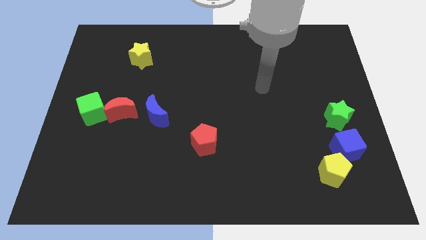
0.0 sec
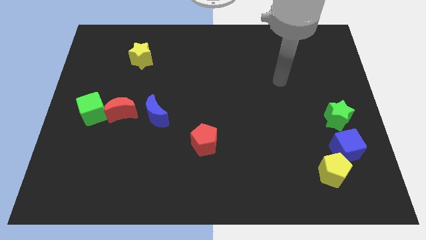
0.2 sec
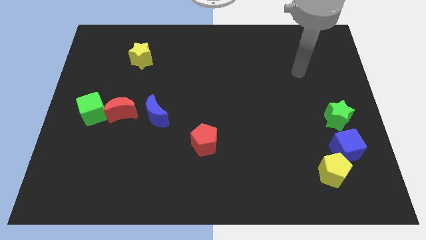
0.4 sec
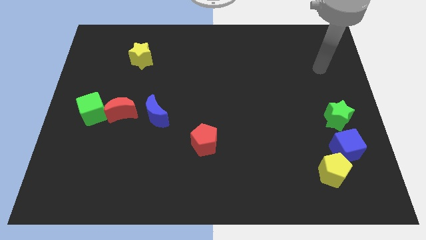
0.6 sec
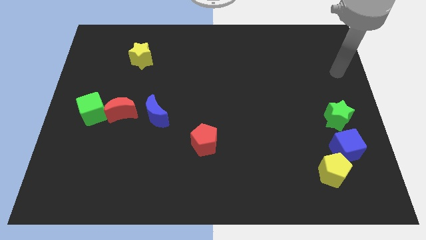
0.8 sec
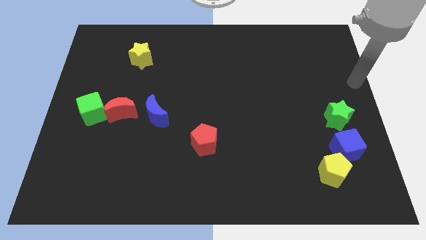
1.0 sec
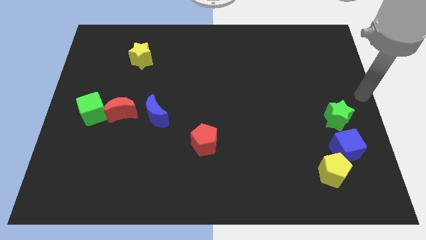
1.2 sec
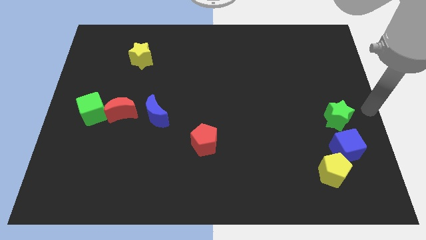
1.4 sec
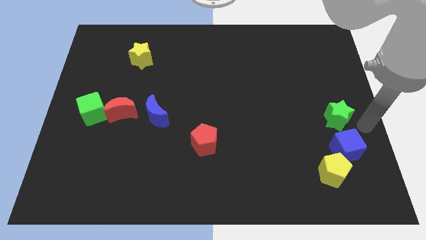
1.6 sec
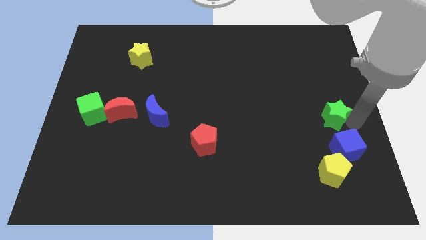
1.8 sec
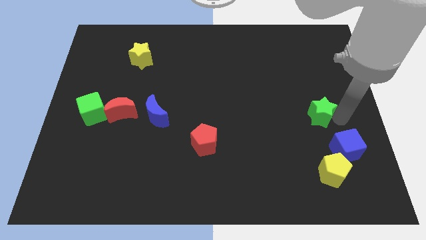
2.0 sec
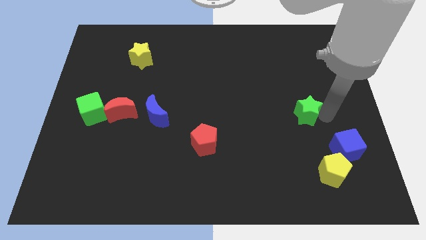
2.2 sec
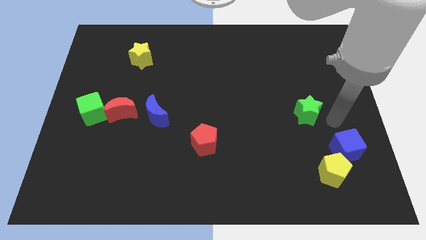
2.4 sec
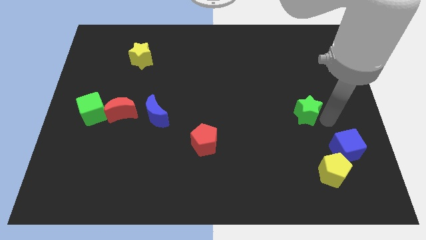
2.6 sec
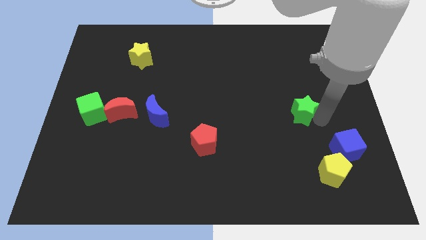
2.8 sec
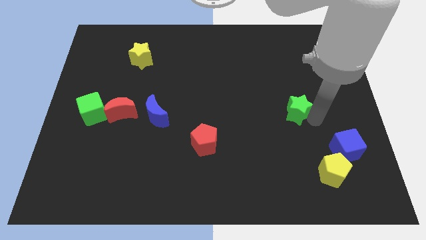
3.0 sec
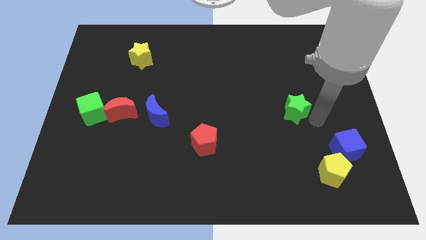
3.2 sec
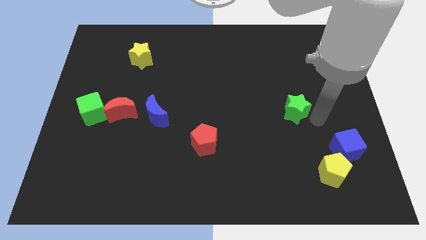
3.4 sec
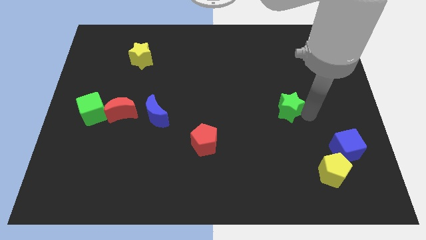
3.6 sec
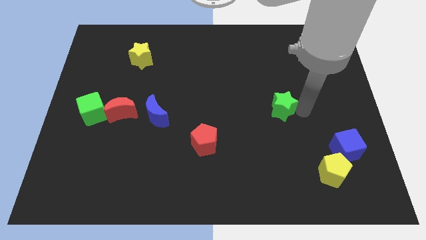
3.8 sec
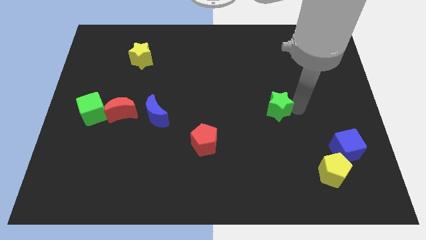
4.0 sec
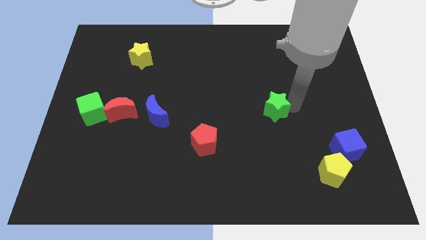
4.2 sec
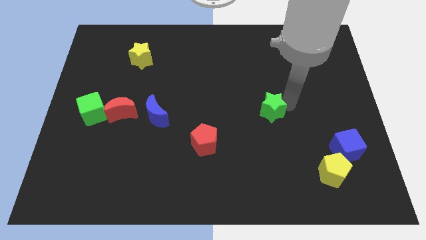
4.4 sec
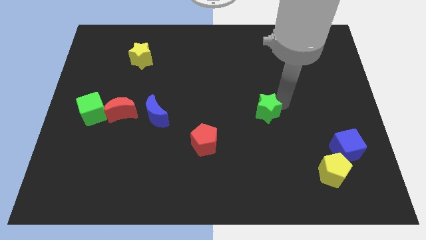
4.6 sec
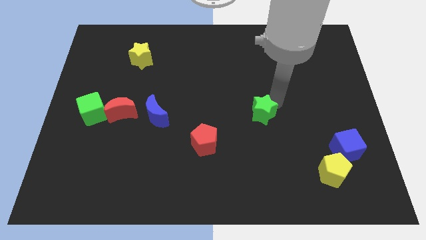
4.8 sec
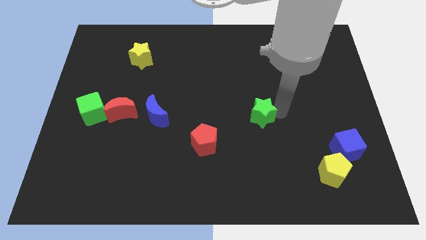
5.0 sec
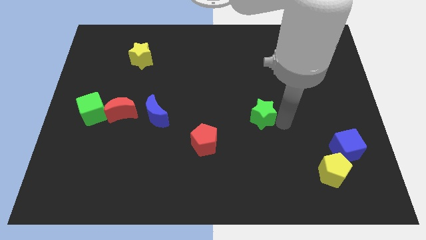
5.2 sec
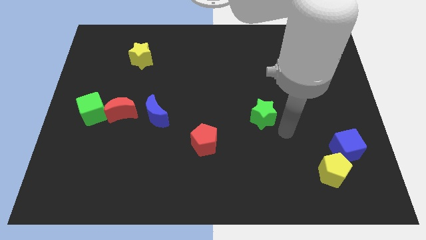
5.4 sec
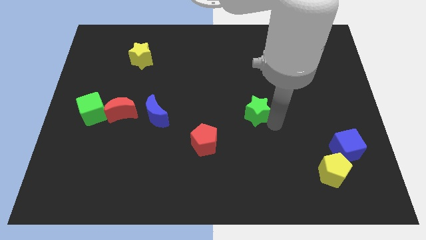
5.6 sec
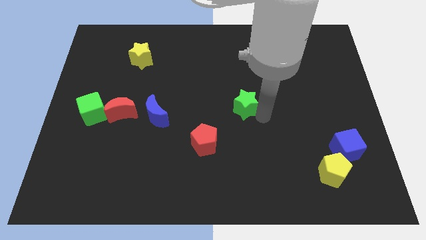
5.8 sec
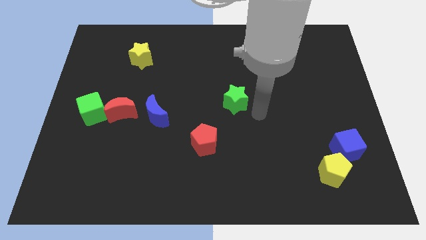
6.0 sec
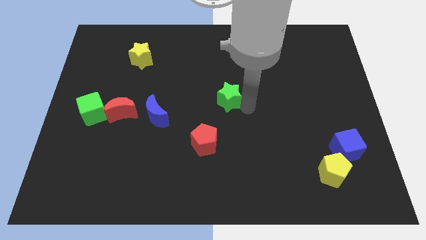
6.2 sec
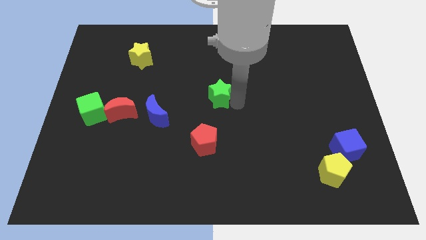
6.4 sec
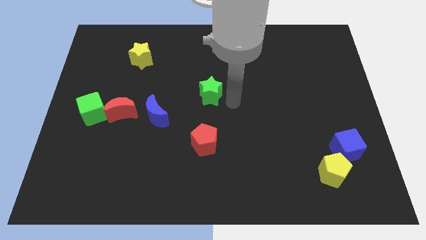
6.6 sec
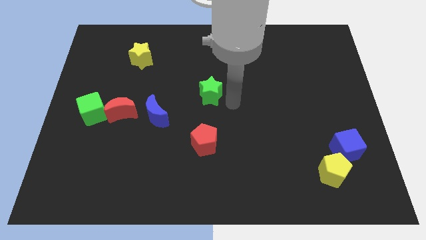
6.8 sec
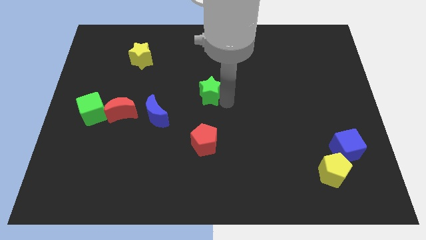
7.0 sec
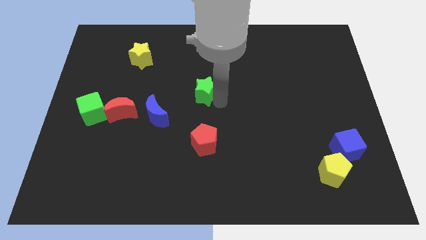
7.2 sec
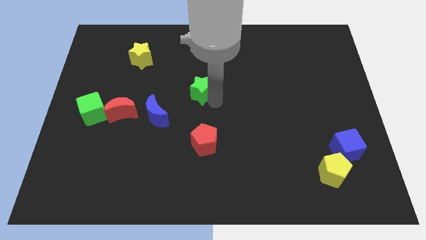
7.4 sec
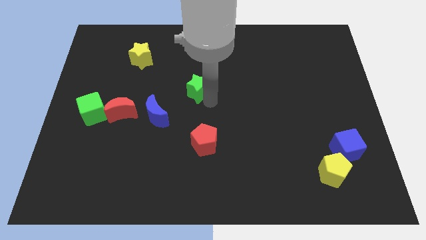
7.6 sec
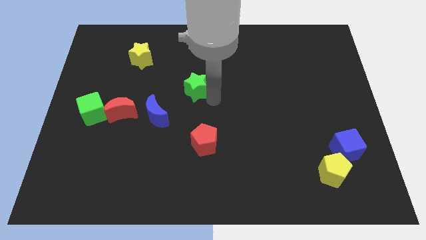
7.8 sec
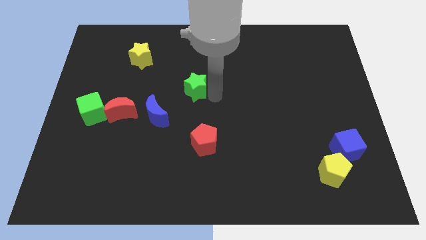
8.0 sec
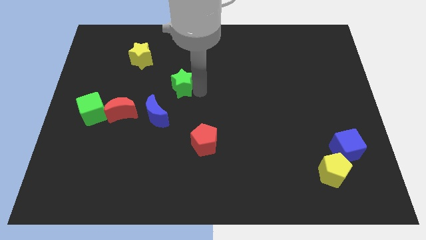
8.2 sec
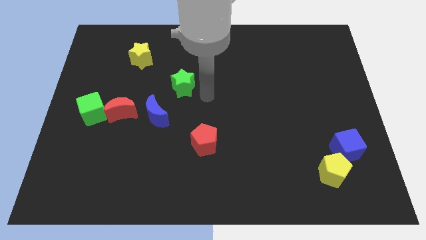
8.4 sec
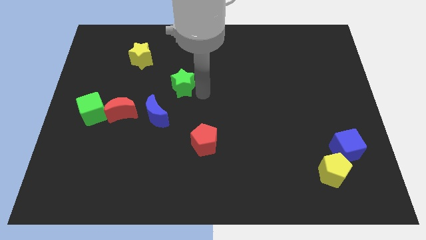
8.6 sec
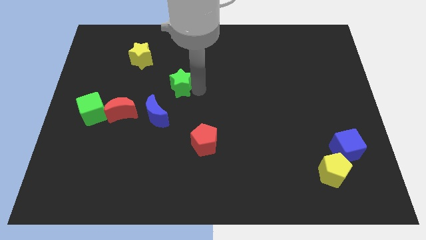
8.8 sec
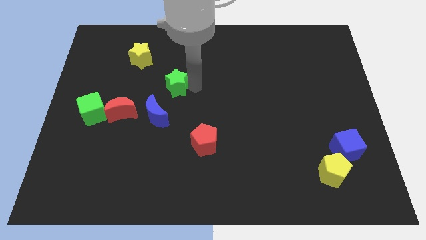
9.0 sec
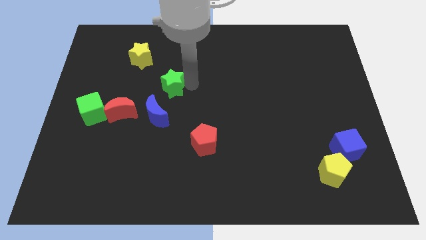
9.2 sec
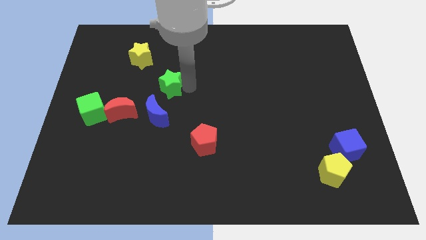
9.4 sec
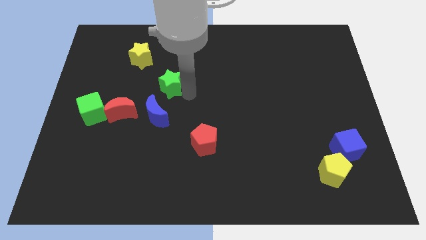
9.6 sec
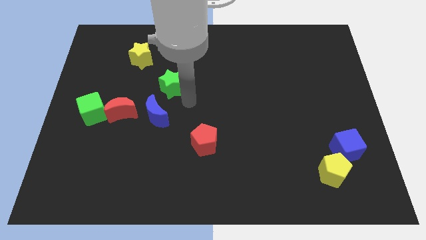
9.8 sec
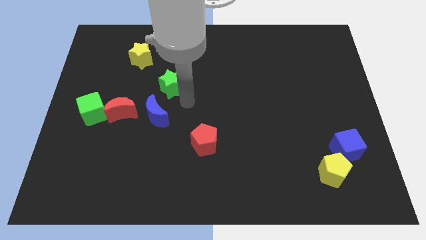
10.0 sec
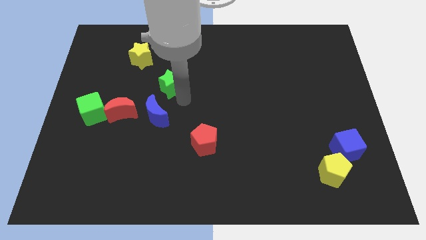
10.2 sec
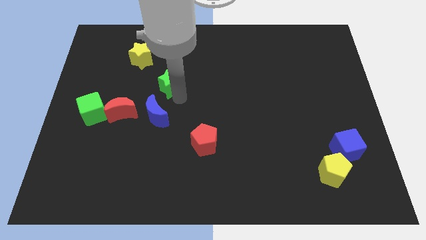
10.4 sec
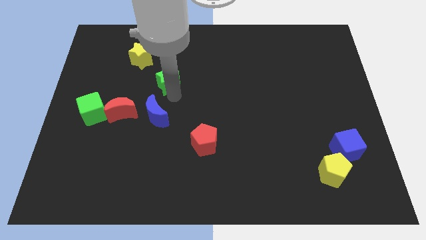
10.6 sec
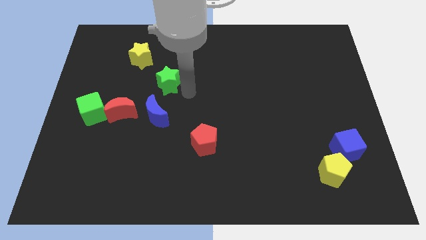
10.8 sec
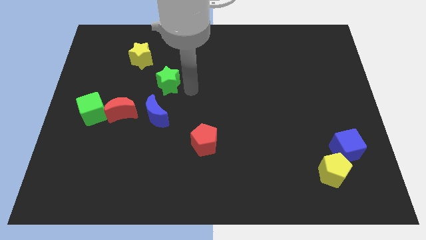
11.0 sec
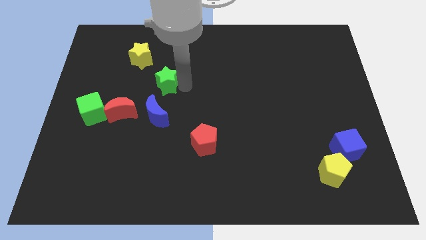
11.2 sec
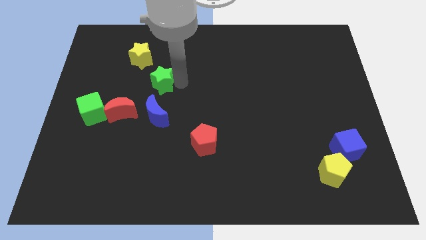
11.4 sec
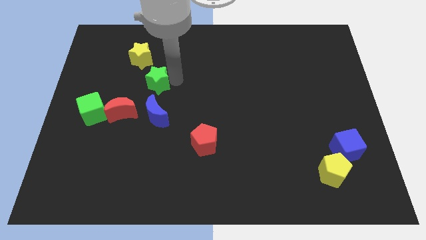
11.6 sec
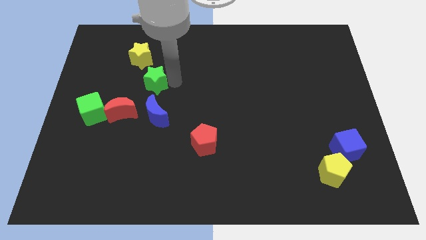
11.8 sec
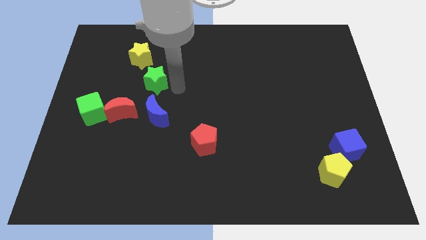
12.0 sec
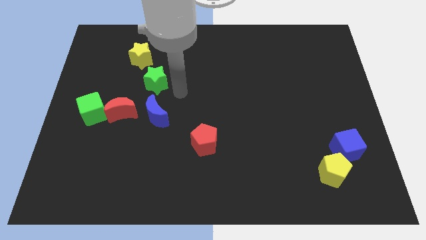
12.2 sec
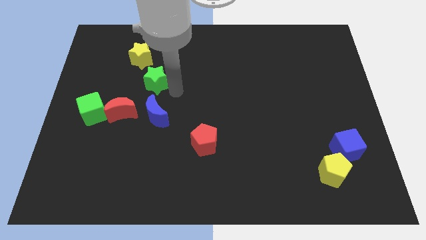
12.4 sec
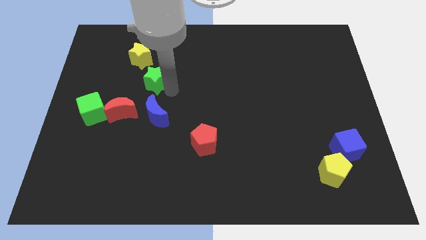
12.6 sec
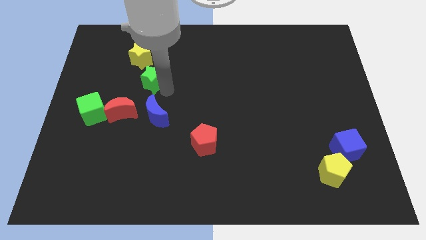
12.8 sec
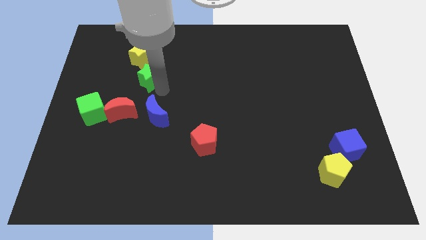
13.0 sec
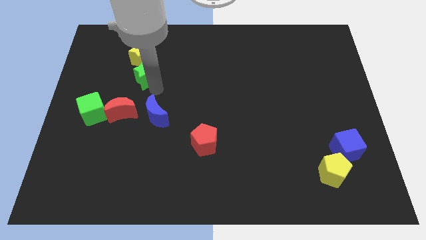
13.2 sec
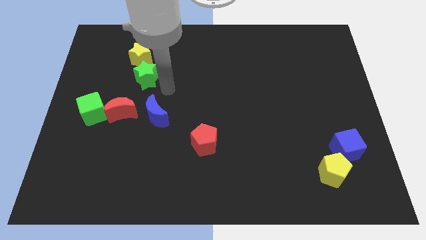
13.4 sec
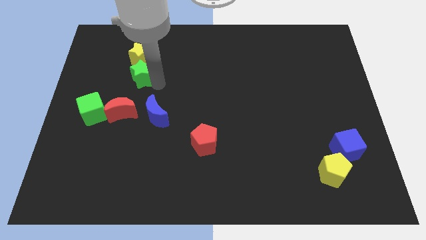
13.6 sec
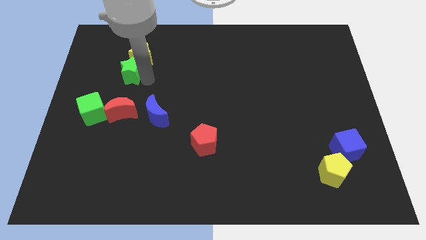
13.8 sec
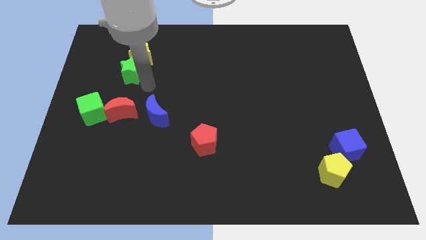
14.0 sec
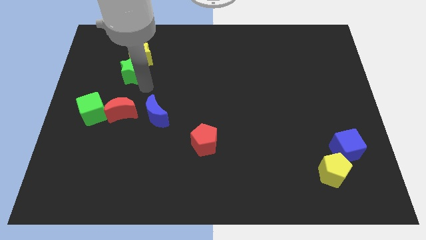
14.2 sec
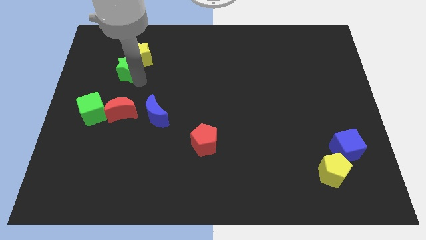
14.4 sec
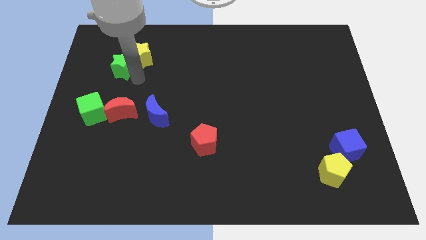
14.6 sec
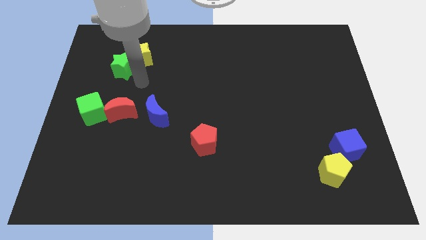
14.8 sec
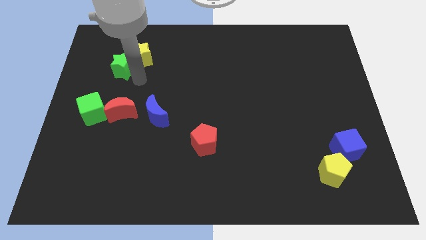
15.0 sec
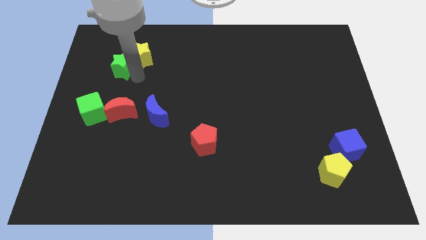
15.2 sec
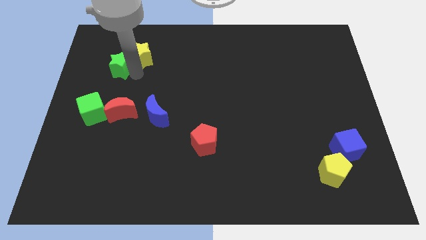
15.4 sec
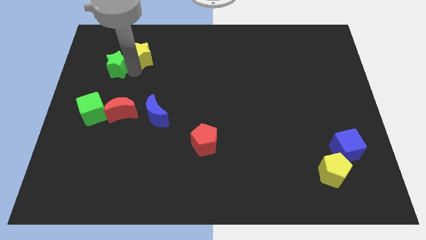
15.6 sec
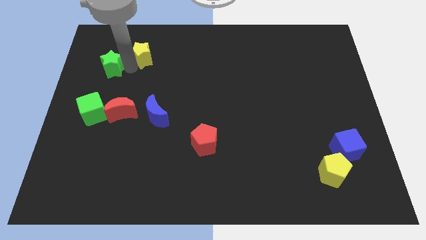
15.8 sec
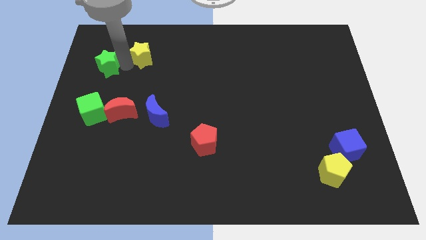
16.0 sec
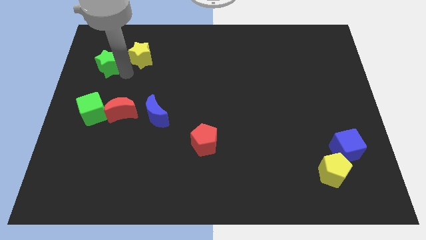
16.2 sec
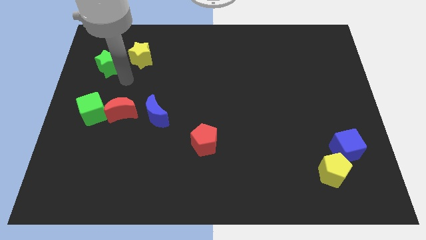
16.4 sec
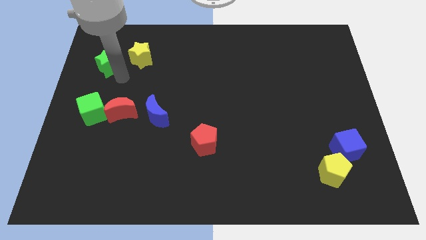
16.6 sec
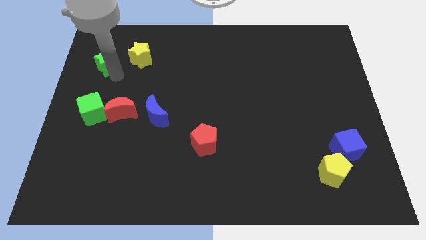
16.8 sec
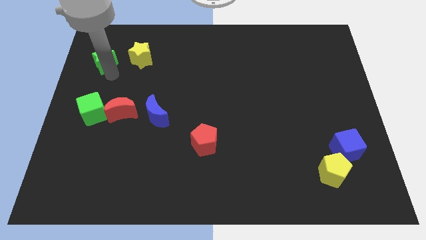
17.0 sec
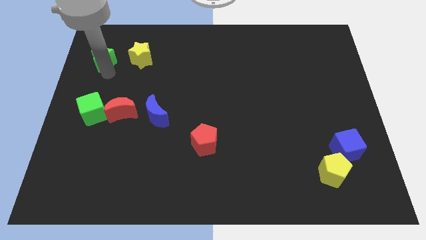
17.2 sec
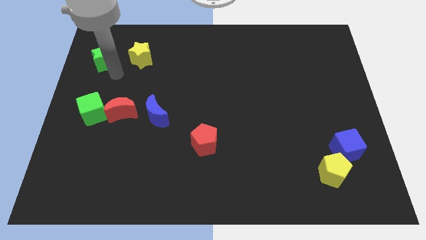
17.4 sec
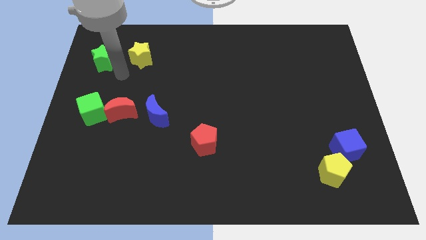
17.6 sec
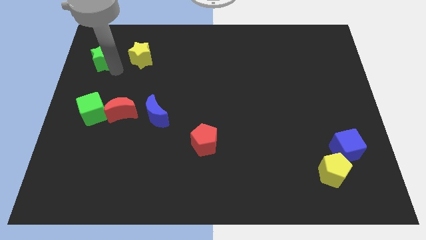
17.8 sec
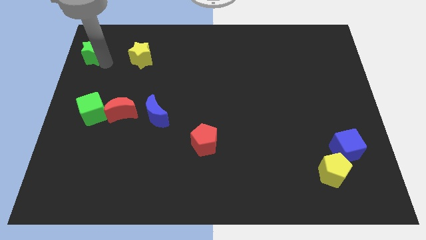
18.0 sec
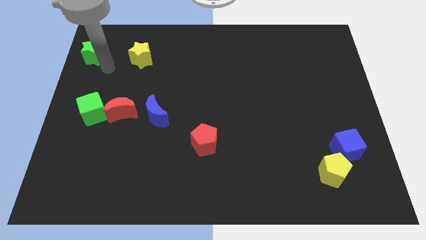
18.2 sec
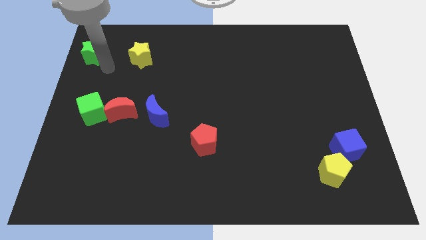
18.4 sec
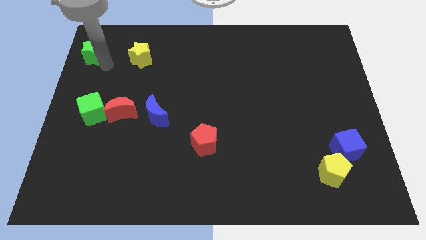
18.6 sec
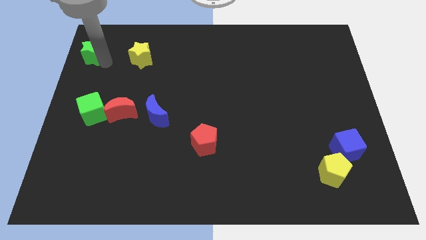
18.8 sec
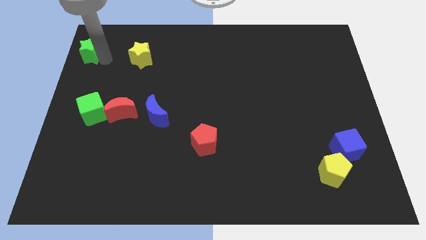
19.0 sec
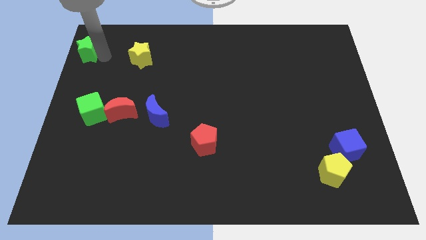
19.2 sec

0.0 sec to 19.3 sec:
slide the green star to the top left corner
